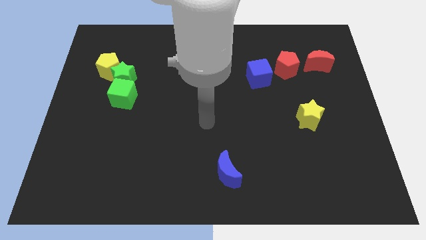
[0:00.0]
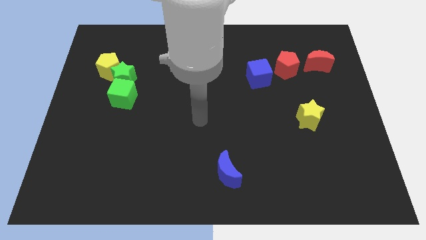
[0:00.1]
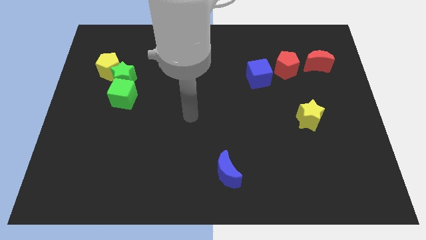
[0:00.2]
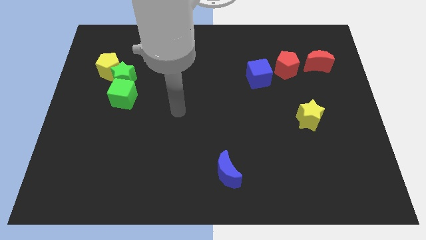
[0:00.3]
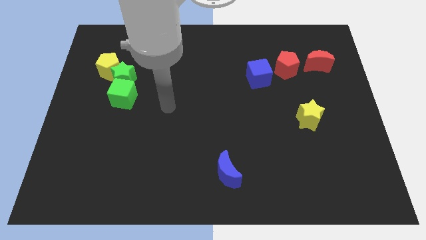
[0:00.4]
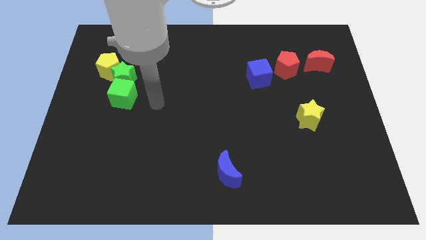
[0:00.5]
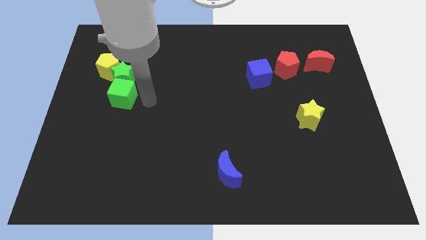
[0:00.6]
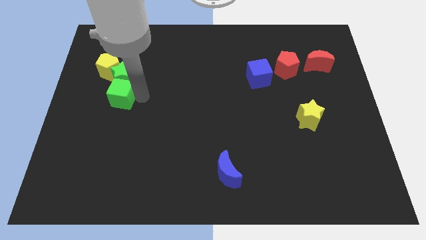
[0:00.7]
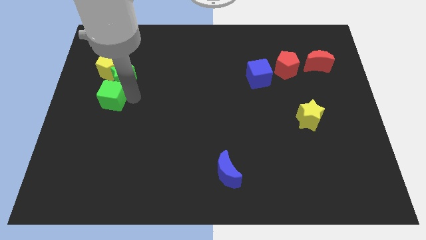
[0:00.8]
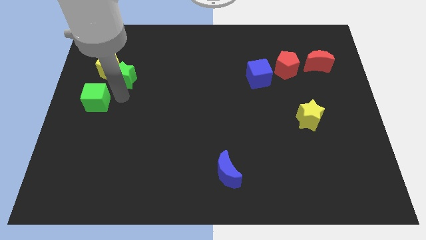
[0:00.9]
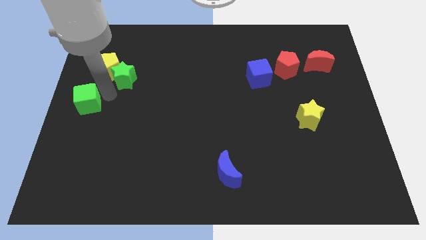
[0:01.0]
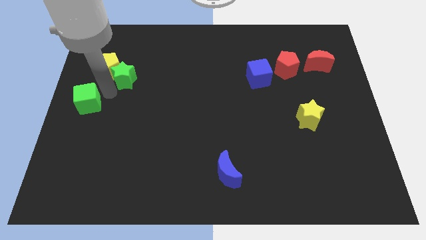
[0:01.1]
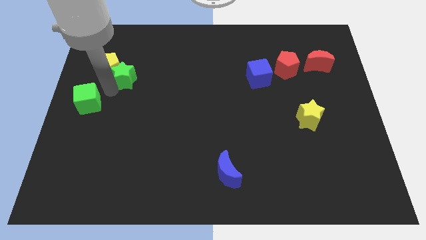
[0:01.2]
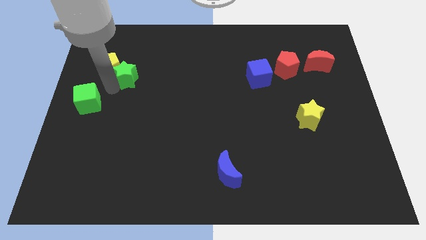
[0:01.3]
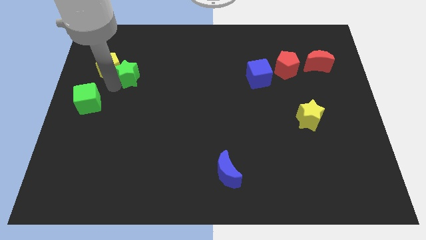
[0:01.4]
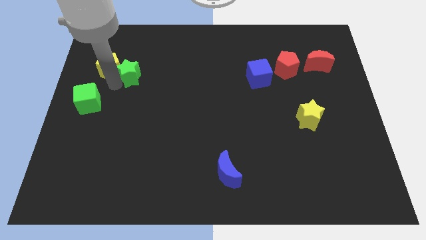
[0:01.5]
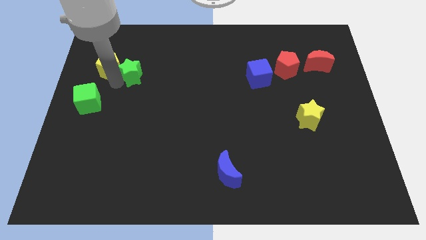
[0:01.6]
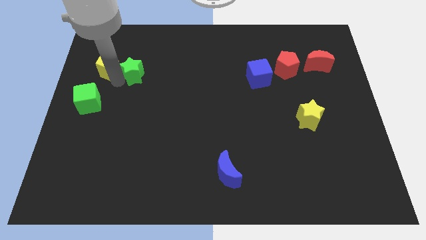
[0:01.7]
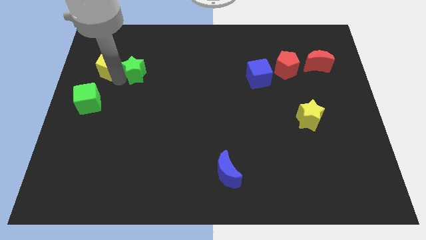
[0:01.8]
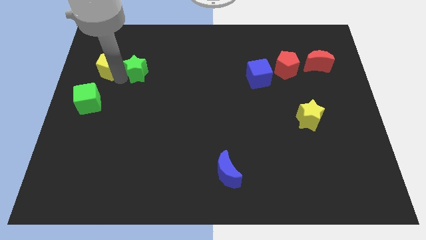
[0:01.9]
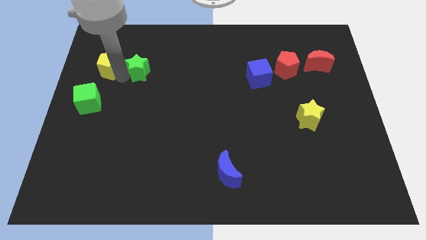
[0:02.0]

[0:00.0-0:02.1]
move the green star away from the yellow pentagon and green cube

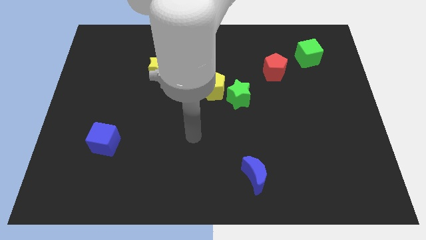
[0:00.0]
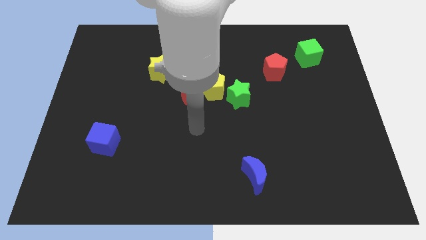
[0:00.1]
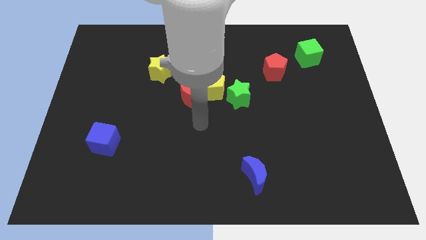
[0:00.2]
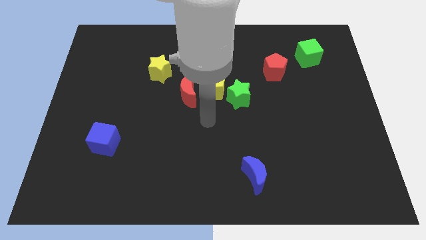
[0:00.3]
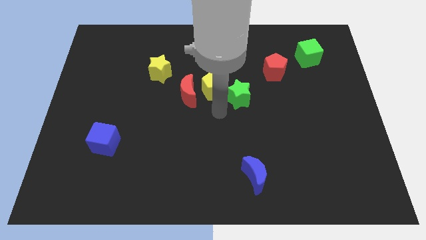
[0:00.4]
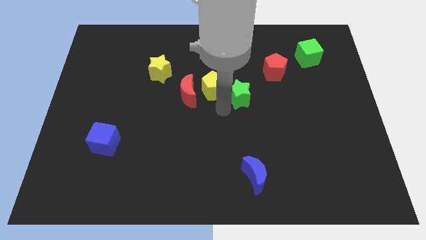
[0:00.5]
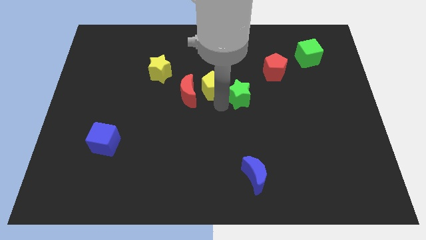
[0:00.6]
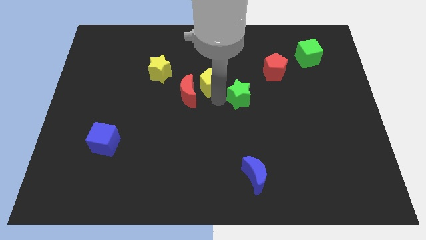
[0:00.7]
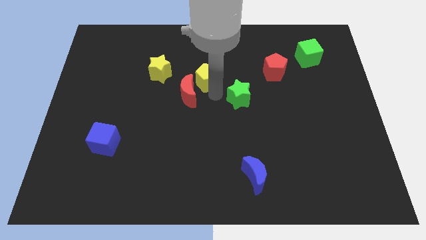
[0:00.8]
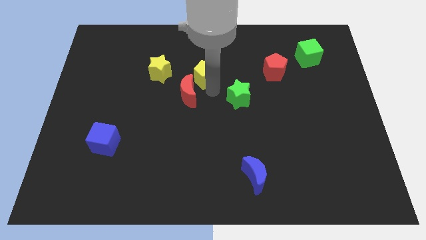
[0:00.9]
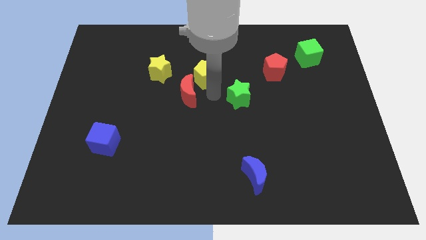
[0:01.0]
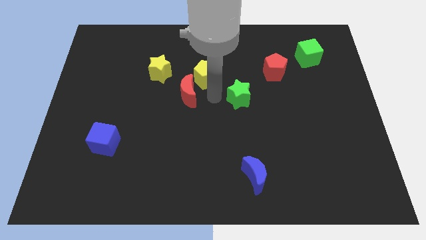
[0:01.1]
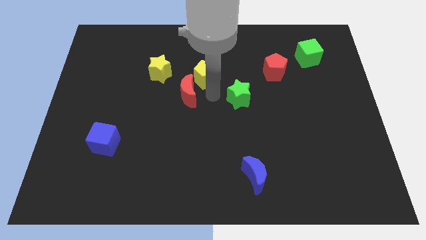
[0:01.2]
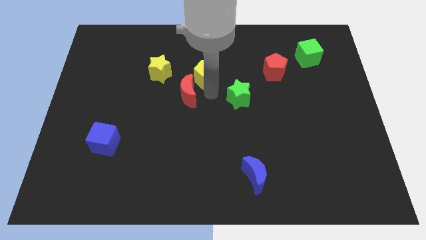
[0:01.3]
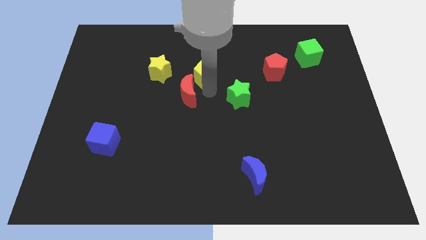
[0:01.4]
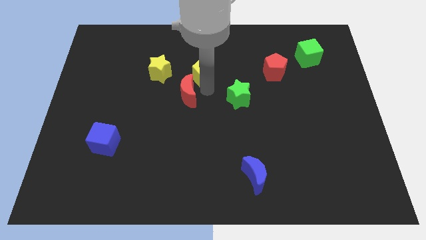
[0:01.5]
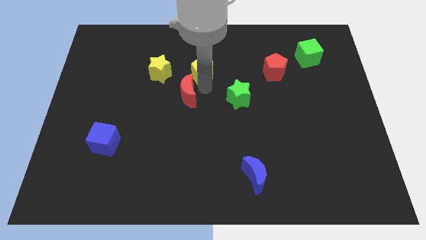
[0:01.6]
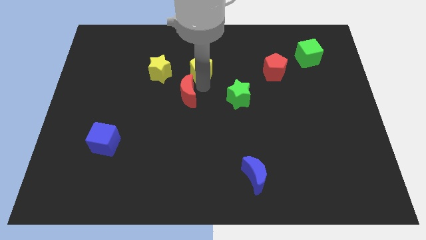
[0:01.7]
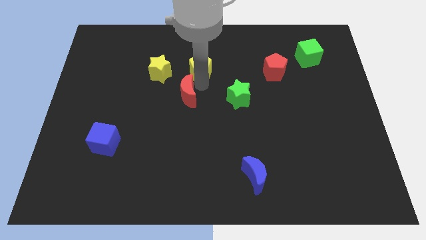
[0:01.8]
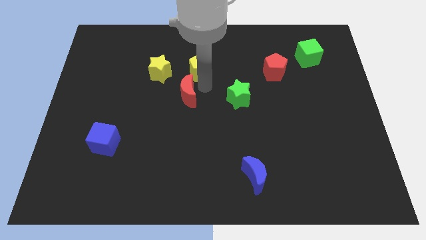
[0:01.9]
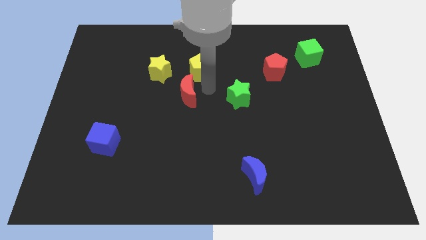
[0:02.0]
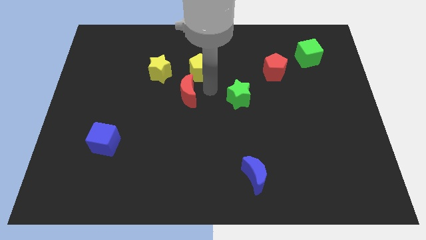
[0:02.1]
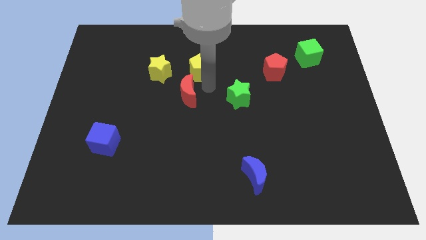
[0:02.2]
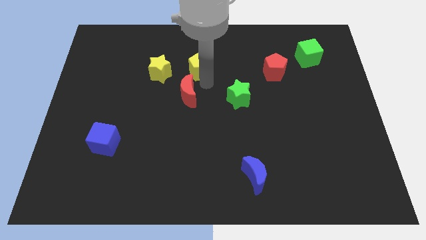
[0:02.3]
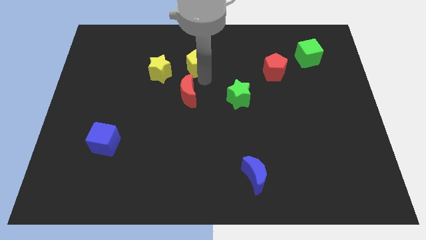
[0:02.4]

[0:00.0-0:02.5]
move the yellow pentagon away from the red moon and green star

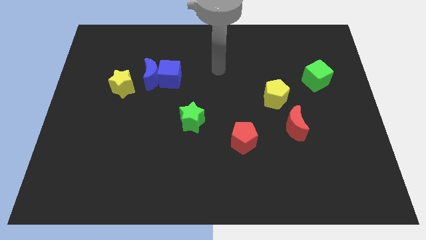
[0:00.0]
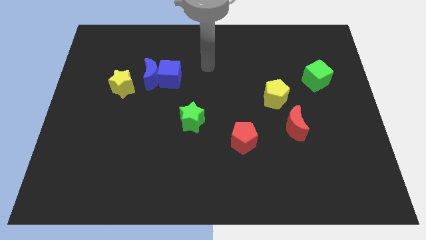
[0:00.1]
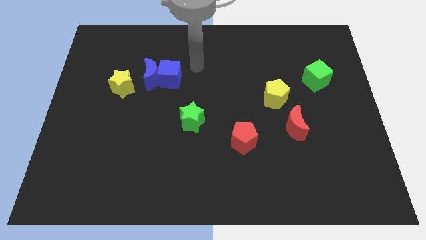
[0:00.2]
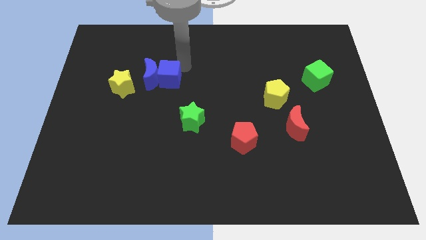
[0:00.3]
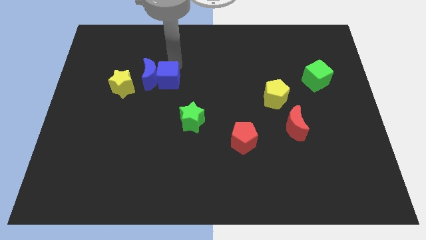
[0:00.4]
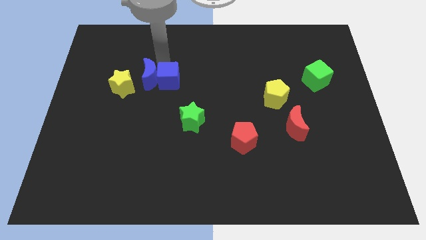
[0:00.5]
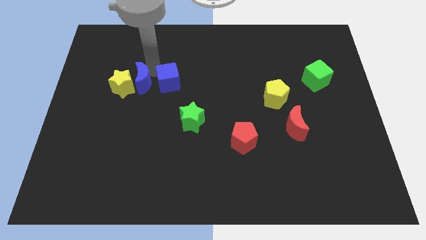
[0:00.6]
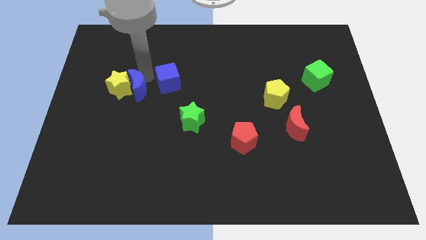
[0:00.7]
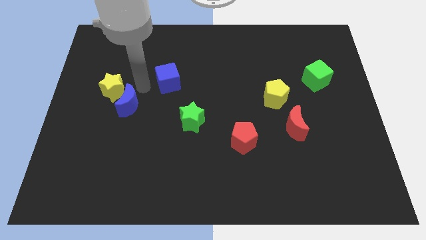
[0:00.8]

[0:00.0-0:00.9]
move the blue cube away from the blue moon

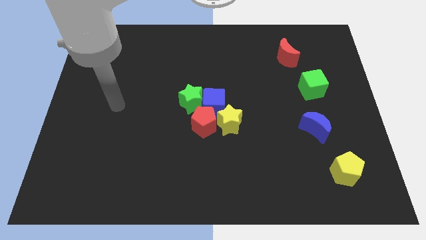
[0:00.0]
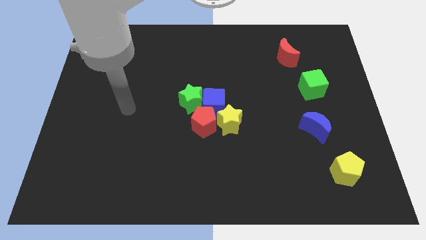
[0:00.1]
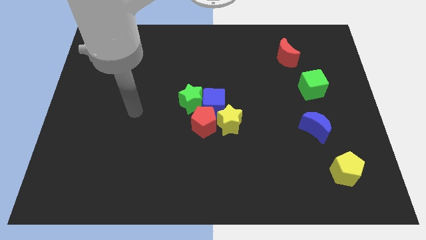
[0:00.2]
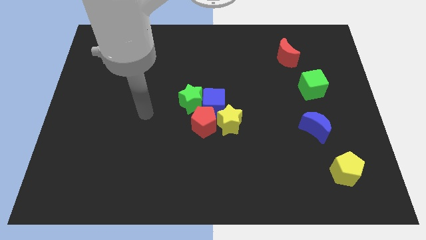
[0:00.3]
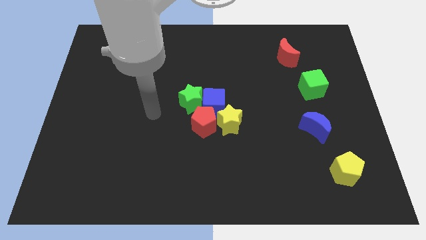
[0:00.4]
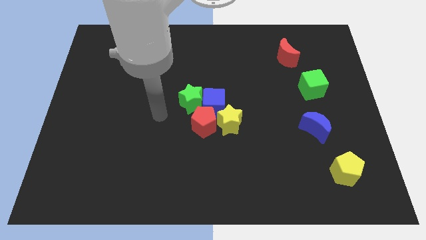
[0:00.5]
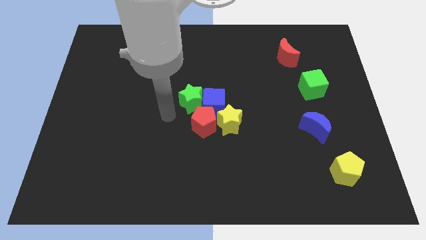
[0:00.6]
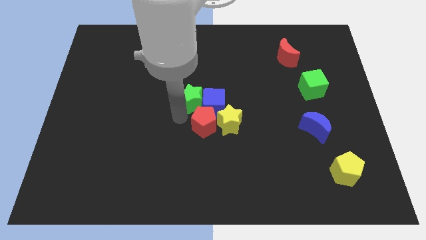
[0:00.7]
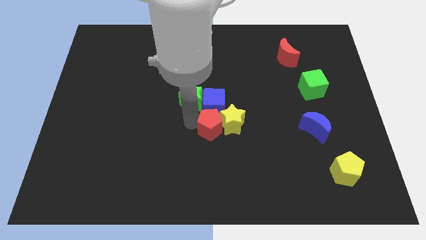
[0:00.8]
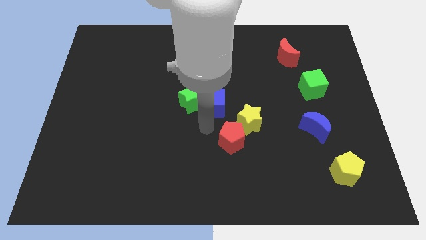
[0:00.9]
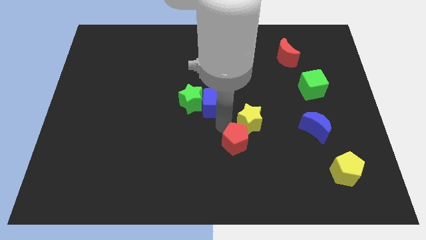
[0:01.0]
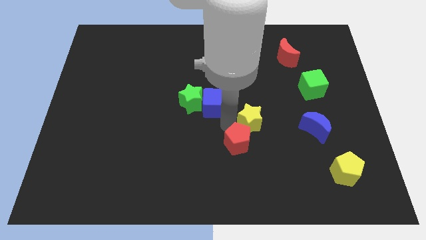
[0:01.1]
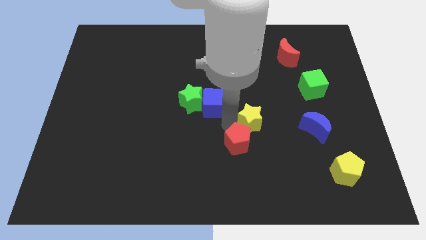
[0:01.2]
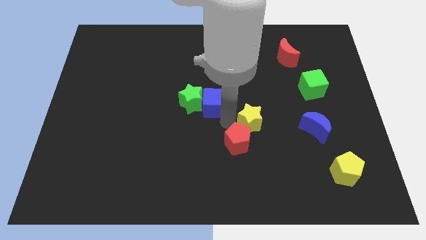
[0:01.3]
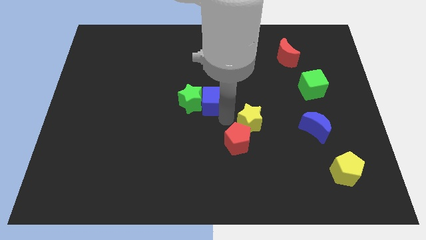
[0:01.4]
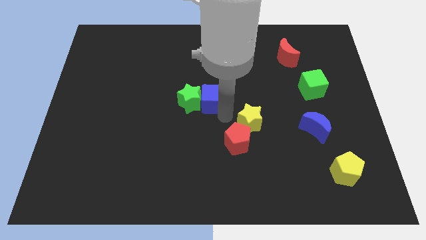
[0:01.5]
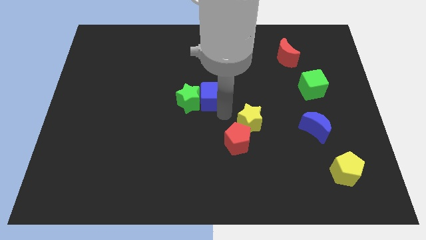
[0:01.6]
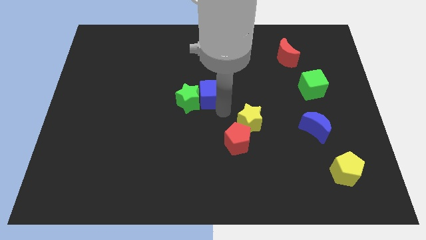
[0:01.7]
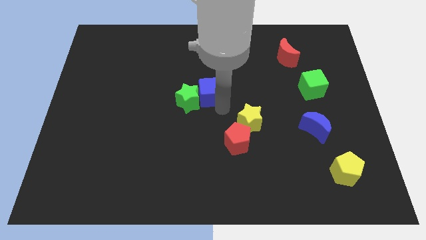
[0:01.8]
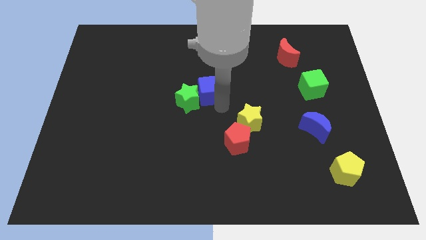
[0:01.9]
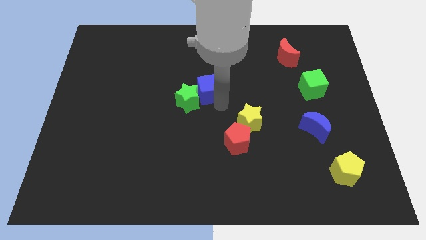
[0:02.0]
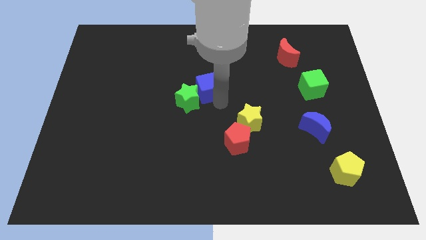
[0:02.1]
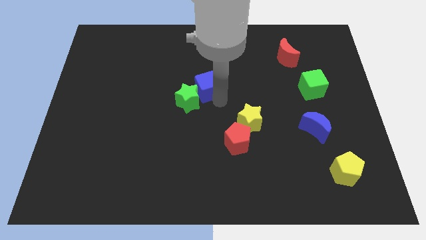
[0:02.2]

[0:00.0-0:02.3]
move the blue cube away from the green star, red pentagon, and yellow star

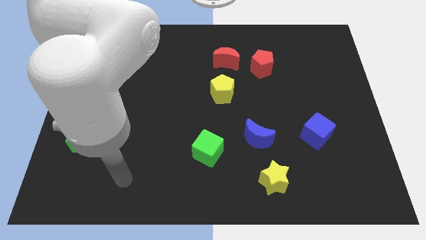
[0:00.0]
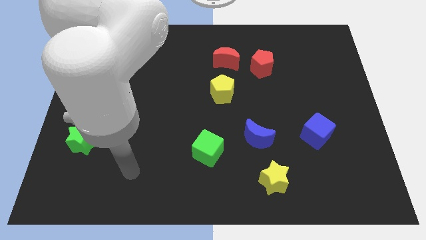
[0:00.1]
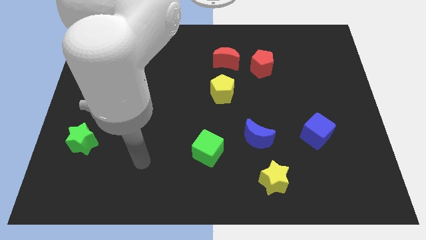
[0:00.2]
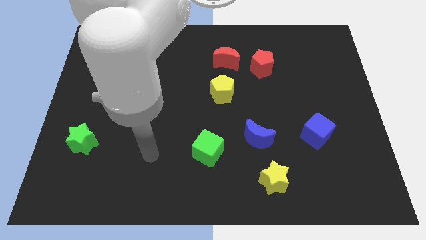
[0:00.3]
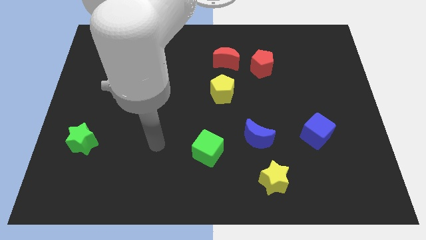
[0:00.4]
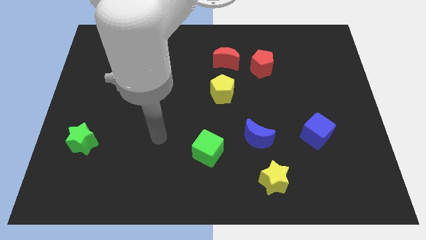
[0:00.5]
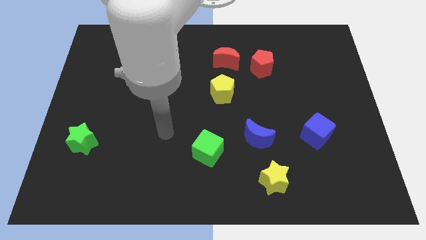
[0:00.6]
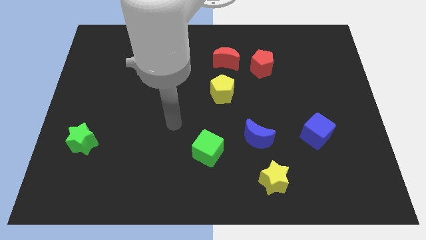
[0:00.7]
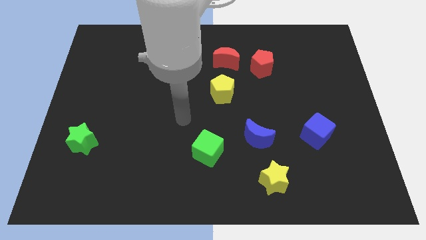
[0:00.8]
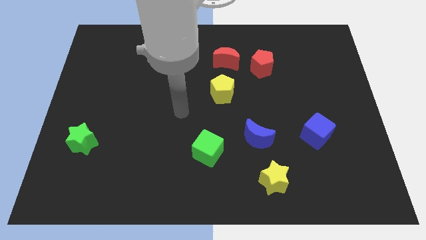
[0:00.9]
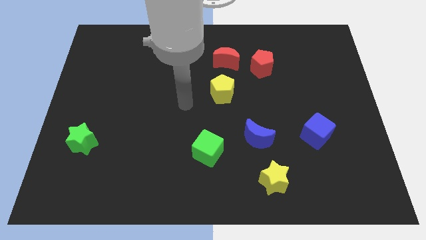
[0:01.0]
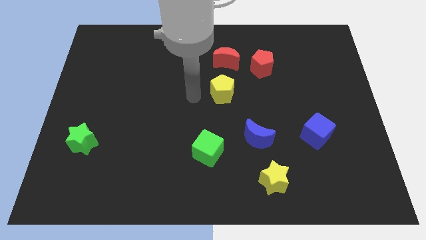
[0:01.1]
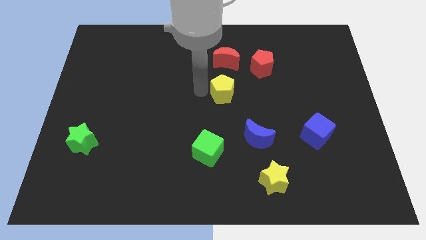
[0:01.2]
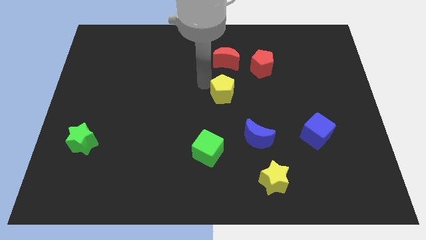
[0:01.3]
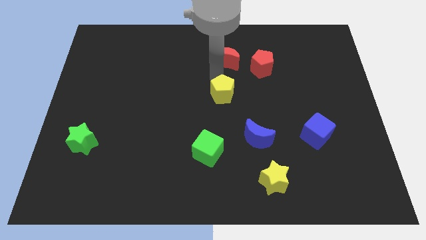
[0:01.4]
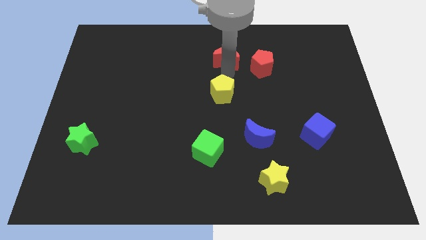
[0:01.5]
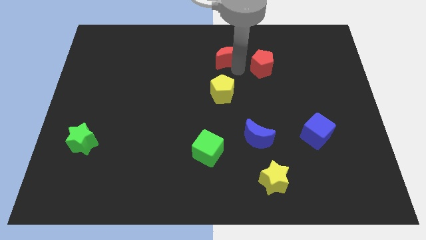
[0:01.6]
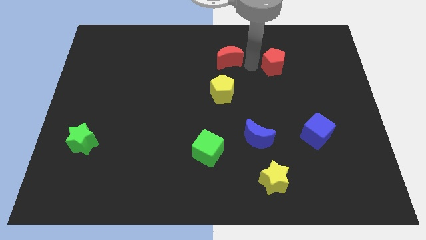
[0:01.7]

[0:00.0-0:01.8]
pull the red moon apart from the red pentagon
